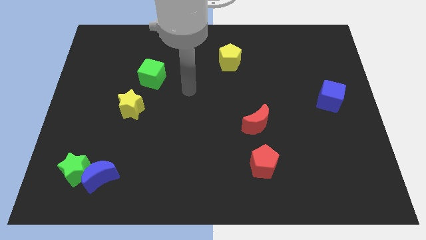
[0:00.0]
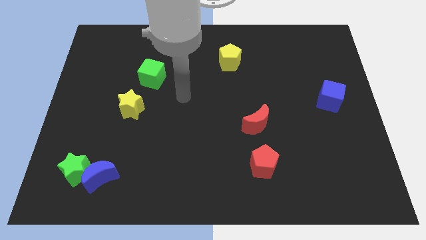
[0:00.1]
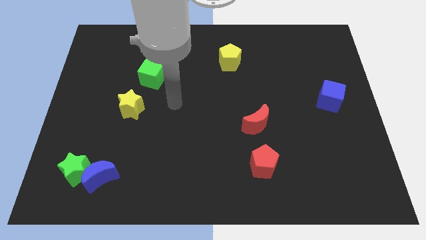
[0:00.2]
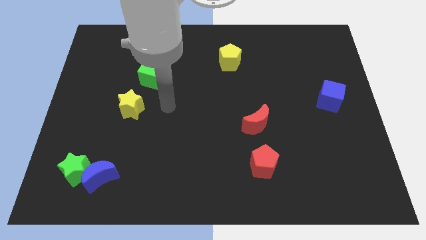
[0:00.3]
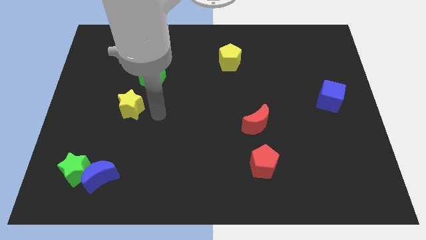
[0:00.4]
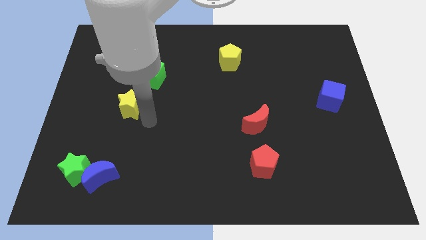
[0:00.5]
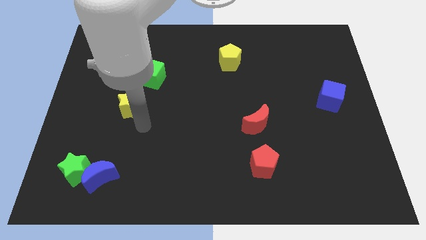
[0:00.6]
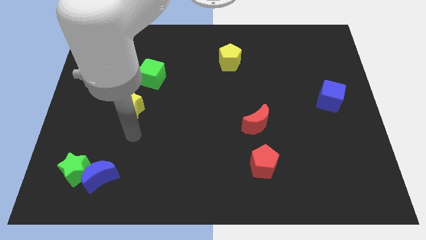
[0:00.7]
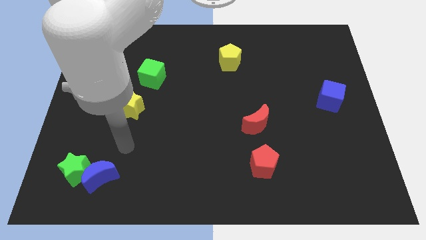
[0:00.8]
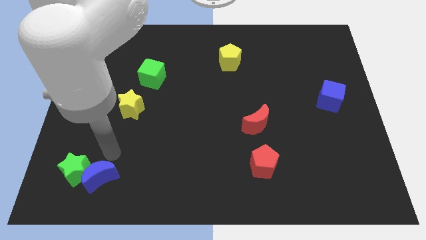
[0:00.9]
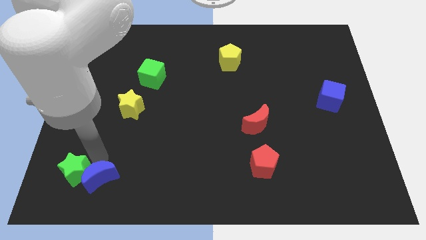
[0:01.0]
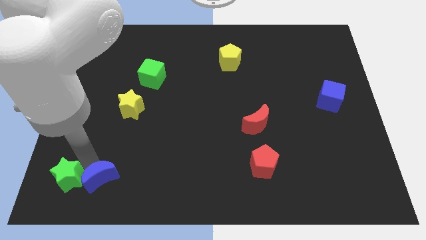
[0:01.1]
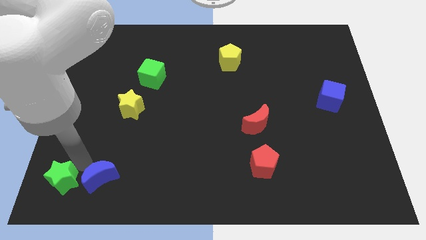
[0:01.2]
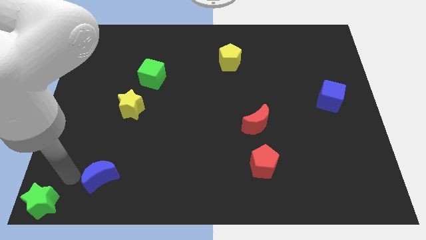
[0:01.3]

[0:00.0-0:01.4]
separate the blue moon from the green star

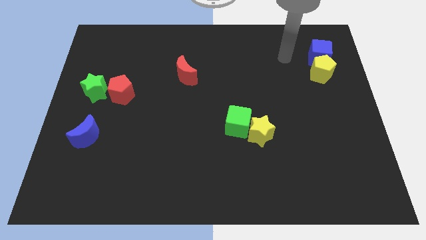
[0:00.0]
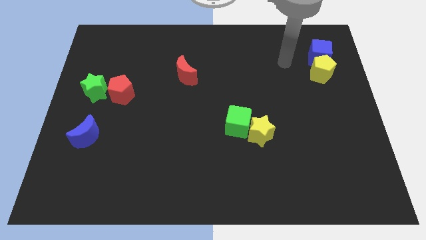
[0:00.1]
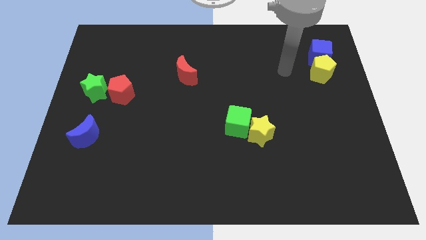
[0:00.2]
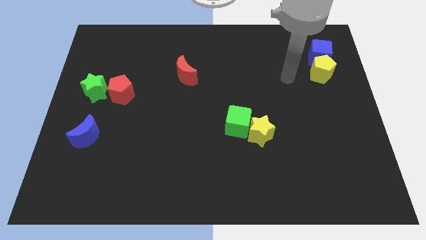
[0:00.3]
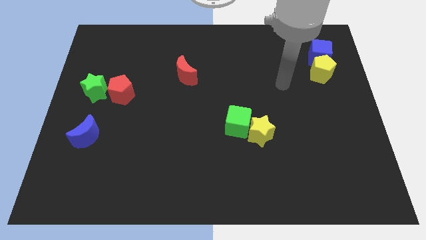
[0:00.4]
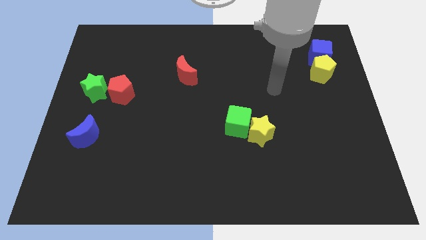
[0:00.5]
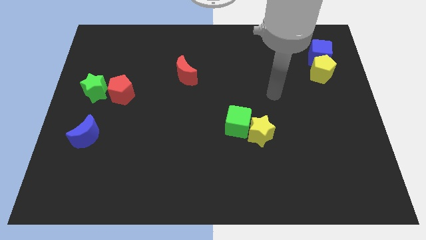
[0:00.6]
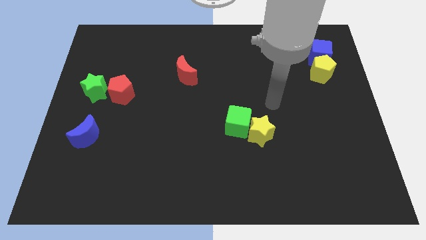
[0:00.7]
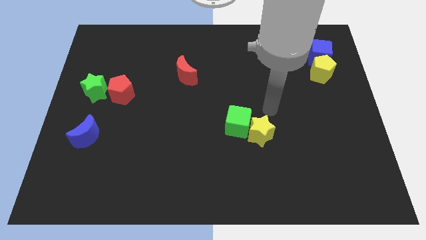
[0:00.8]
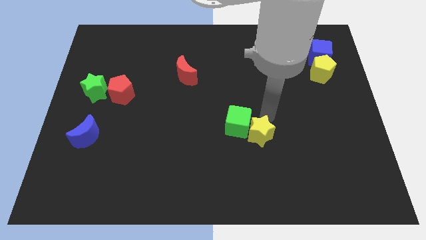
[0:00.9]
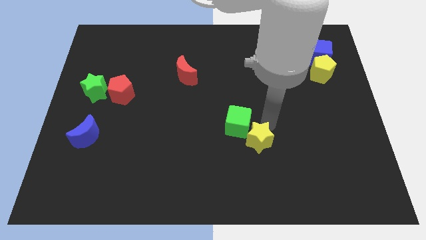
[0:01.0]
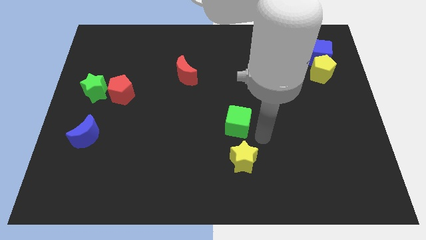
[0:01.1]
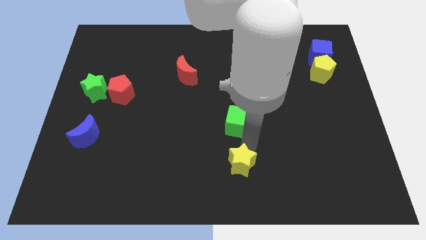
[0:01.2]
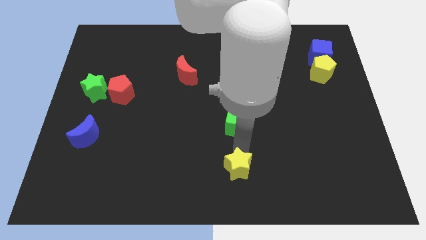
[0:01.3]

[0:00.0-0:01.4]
separate the green cube from the yellow star

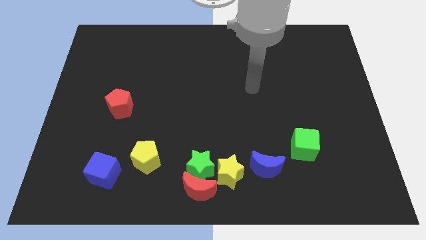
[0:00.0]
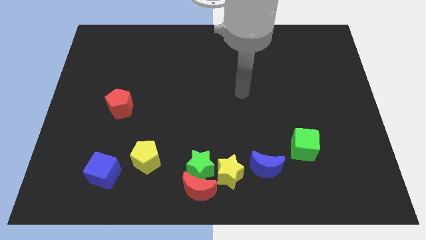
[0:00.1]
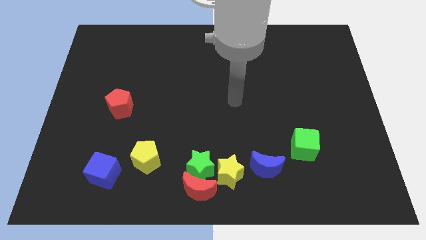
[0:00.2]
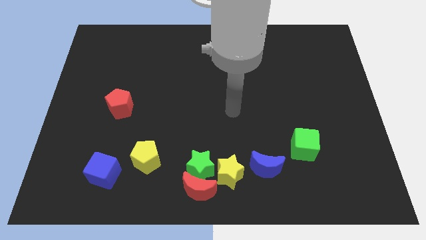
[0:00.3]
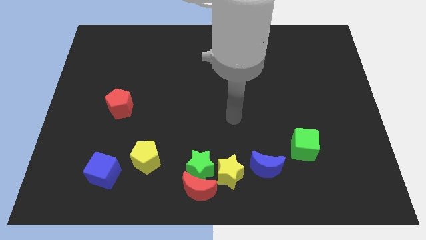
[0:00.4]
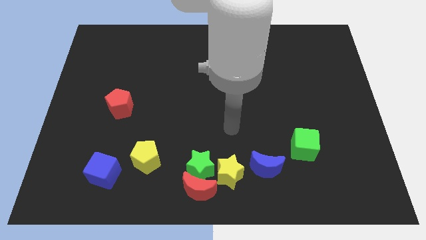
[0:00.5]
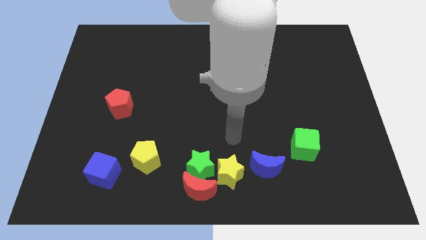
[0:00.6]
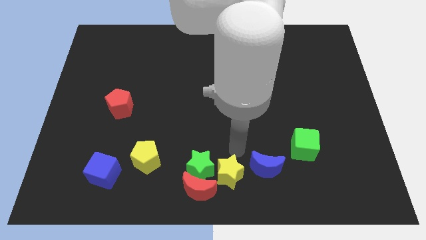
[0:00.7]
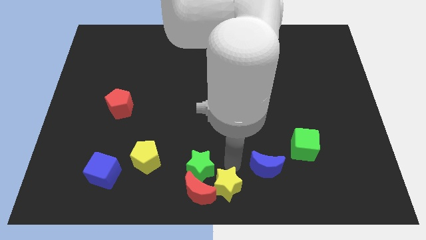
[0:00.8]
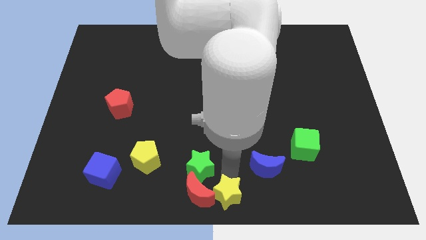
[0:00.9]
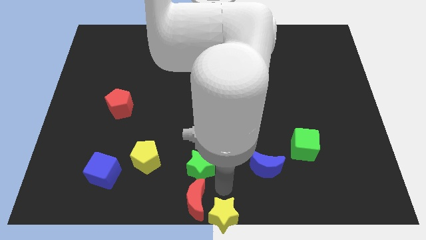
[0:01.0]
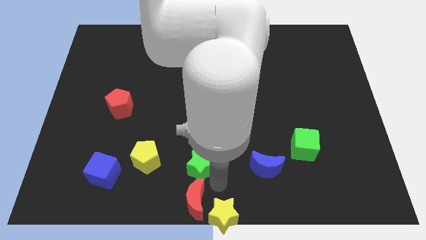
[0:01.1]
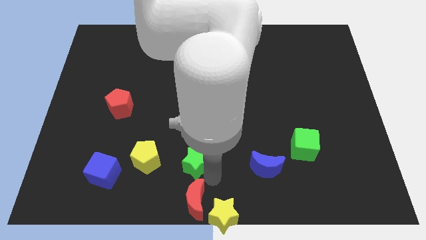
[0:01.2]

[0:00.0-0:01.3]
pull the green star apart from the red moon and yellow star

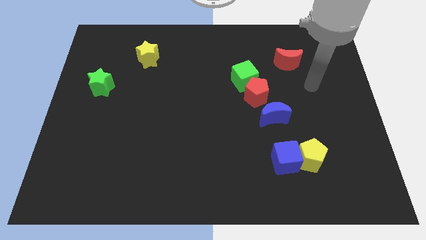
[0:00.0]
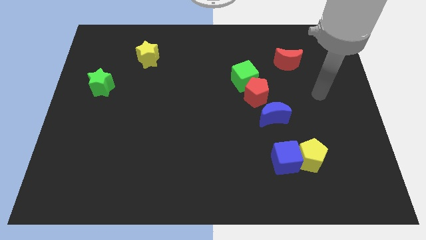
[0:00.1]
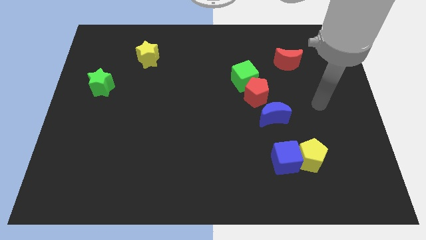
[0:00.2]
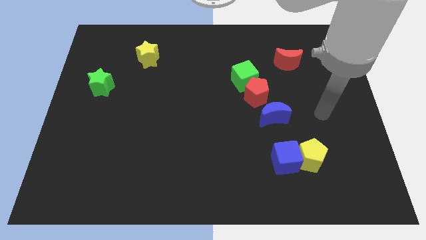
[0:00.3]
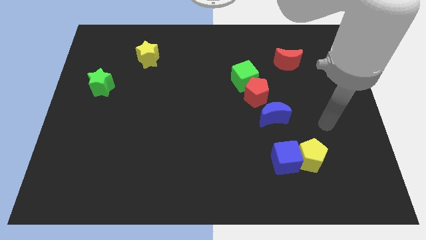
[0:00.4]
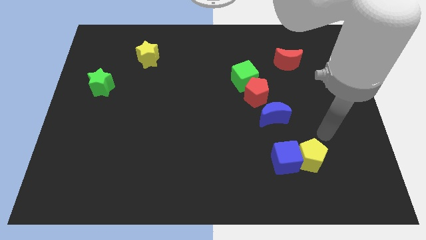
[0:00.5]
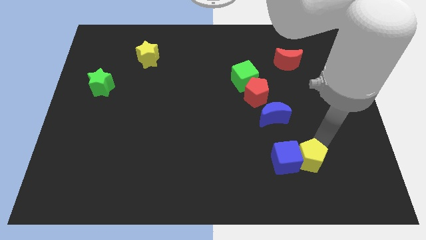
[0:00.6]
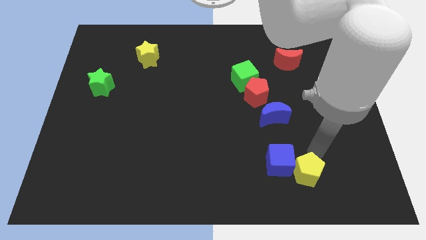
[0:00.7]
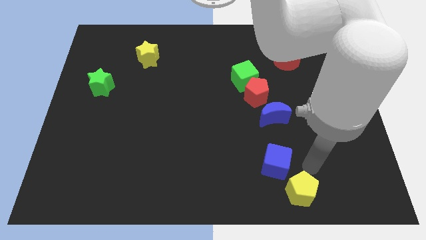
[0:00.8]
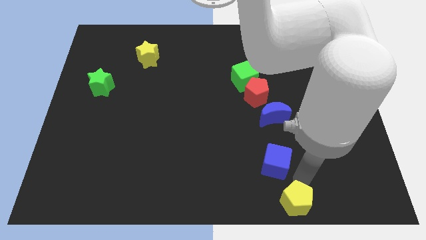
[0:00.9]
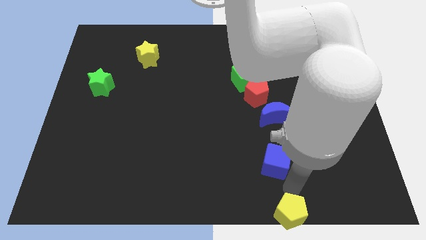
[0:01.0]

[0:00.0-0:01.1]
pull the blue cube apart from the yellow pentagon

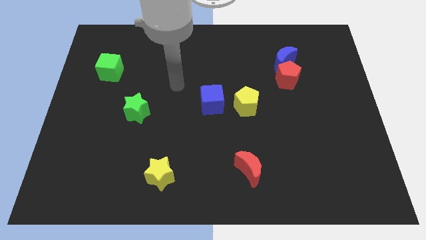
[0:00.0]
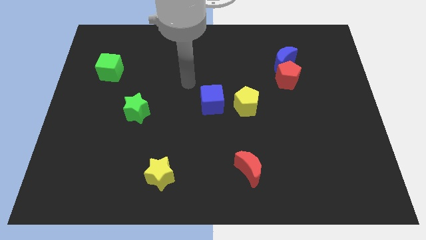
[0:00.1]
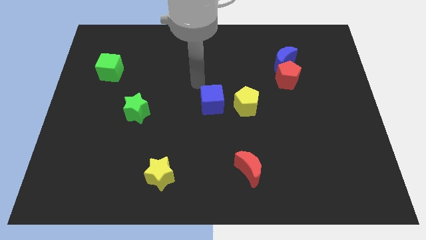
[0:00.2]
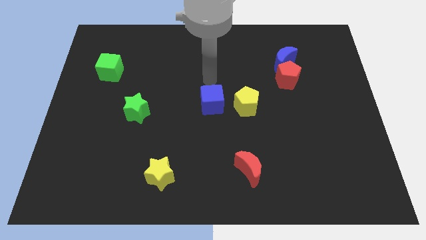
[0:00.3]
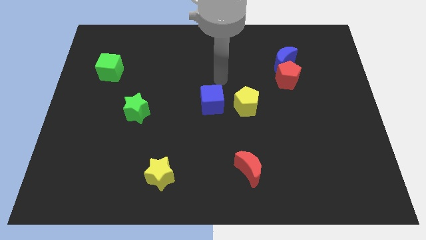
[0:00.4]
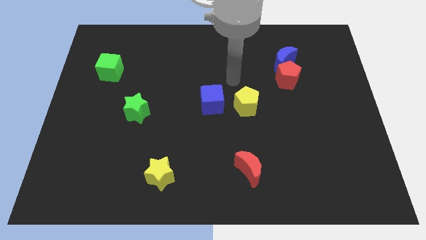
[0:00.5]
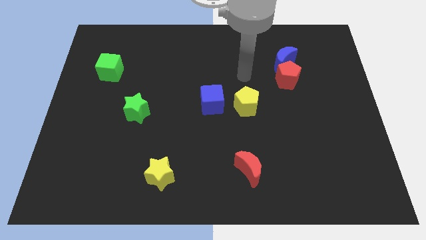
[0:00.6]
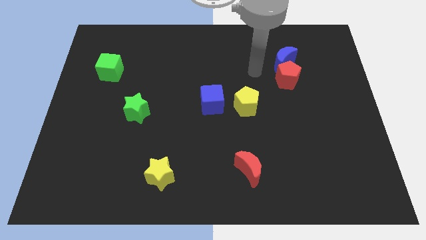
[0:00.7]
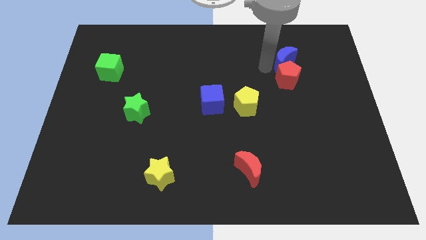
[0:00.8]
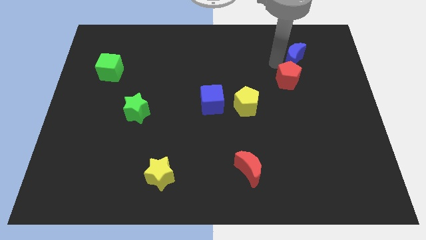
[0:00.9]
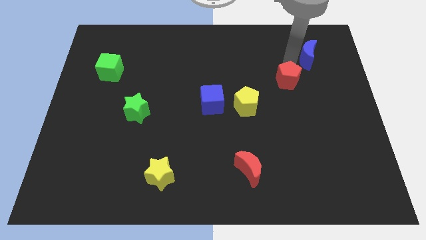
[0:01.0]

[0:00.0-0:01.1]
pull the red pentagon apart from the blue moon

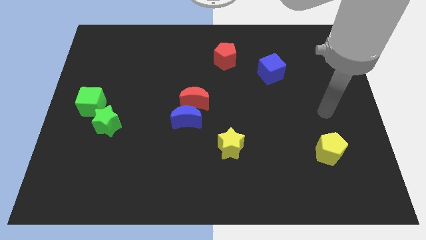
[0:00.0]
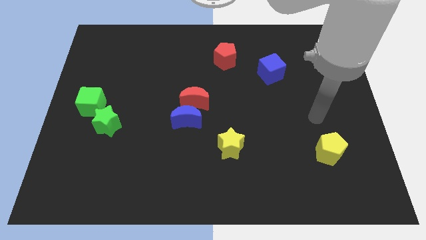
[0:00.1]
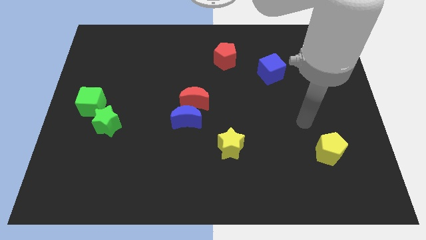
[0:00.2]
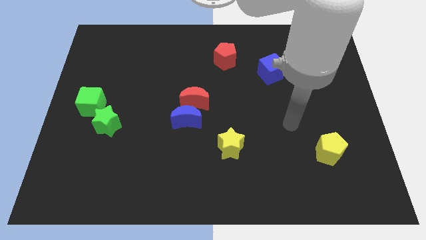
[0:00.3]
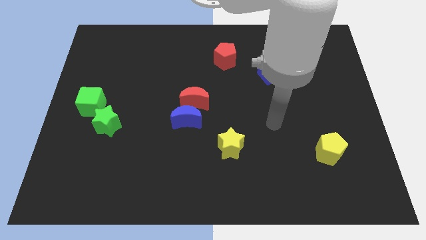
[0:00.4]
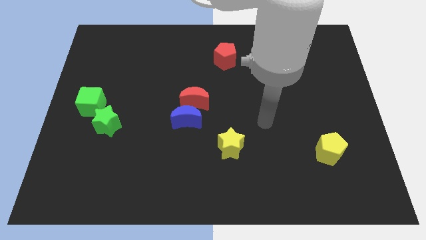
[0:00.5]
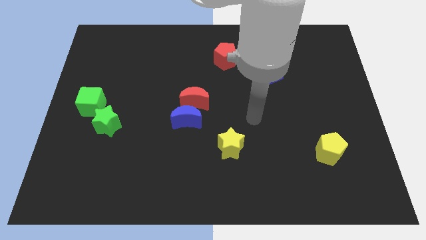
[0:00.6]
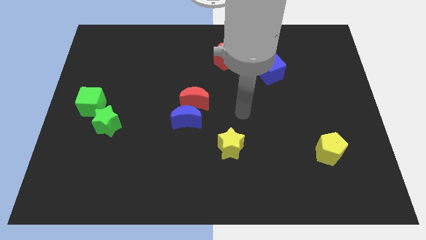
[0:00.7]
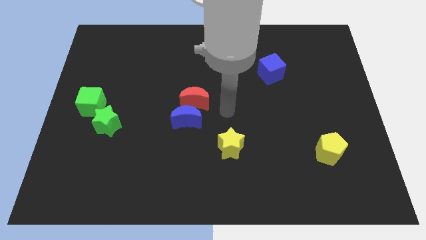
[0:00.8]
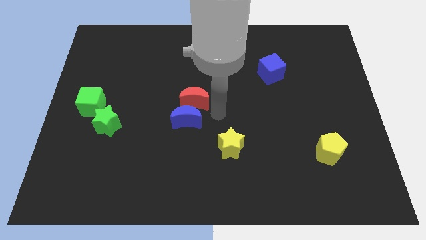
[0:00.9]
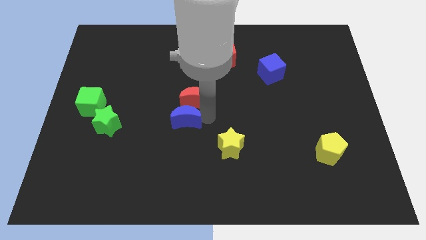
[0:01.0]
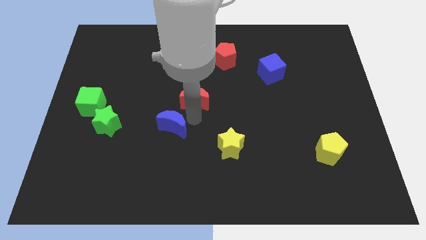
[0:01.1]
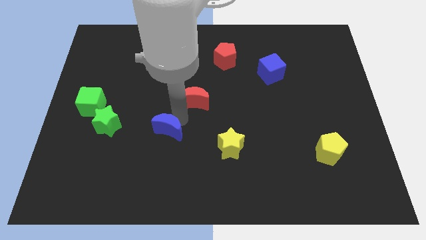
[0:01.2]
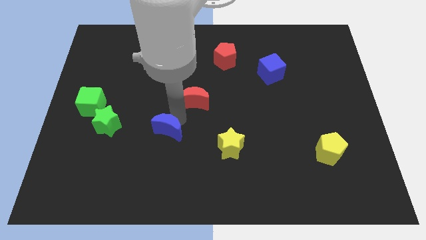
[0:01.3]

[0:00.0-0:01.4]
separate the red moon from the blue moon

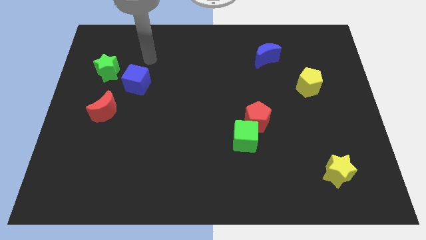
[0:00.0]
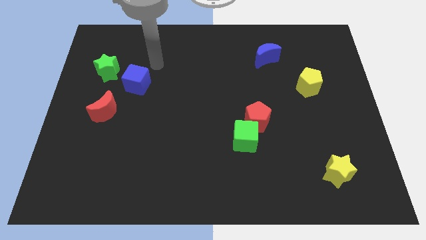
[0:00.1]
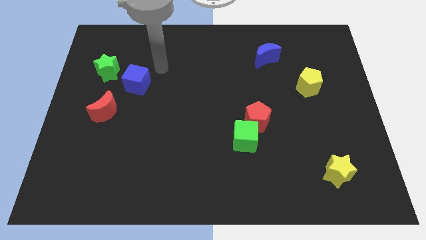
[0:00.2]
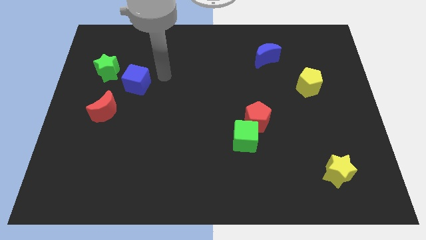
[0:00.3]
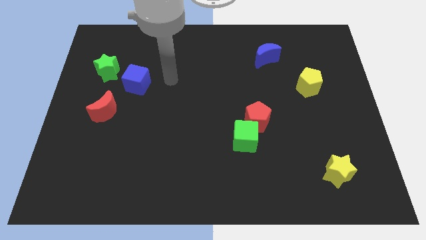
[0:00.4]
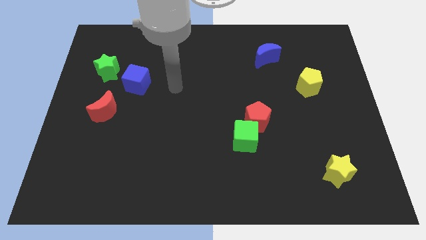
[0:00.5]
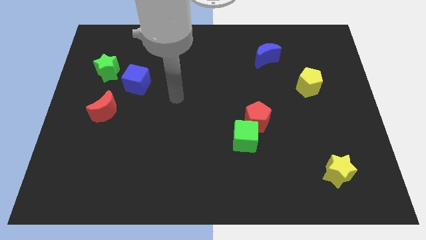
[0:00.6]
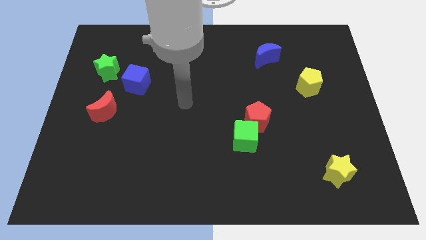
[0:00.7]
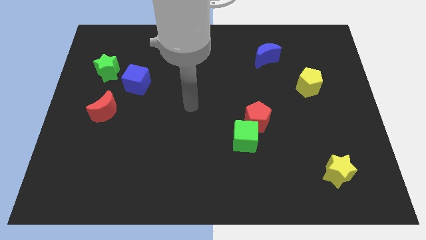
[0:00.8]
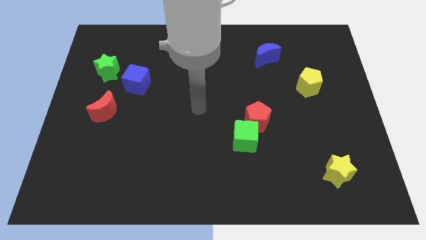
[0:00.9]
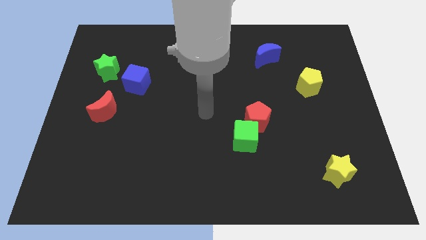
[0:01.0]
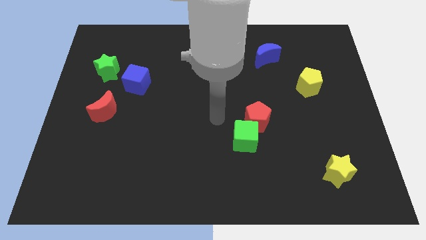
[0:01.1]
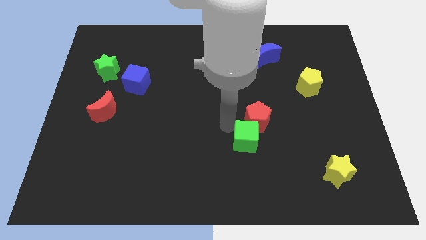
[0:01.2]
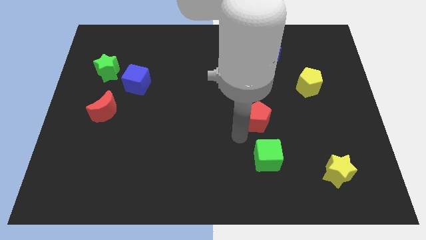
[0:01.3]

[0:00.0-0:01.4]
separate the red pentagon from the green cube

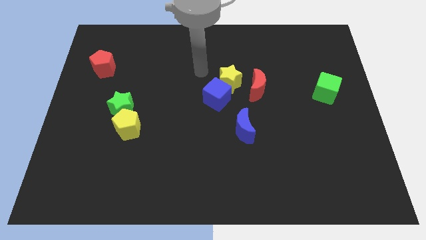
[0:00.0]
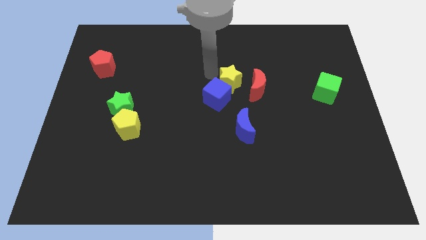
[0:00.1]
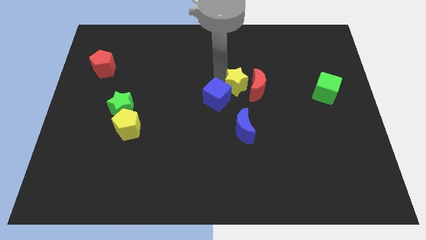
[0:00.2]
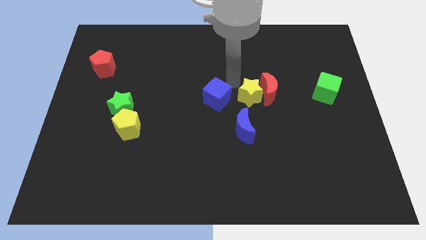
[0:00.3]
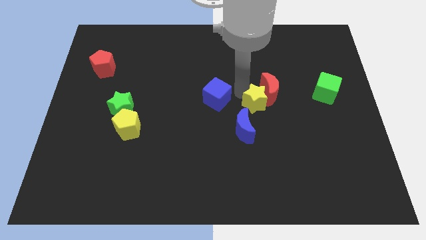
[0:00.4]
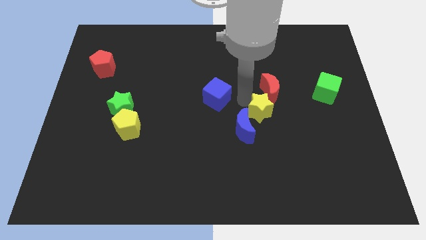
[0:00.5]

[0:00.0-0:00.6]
pull the blue cube apart from the yellow star
